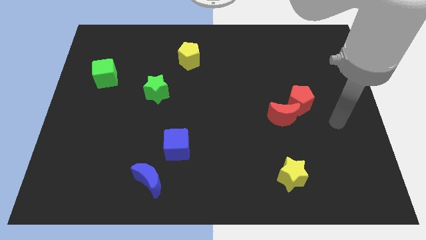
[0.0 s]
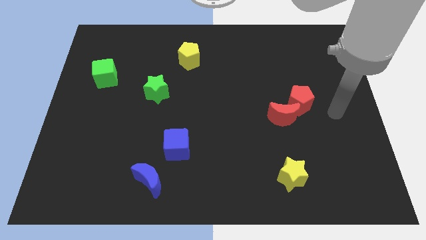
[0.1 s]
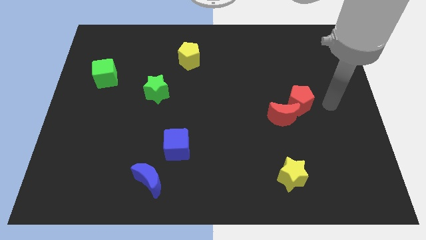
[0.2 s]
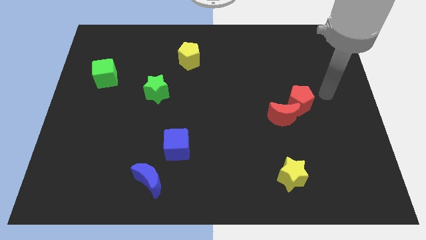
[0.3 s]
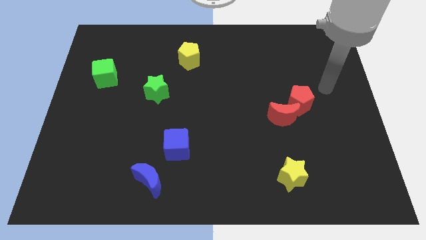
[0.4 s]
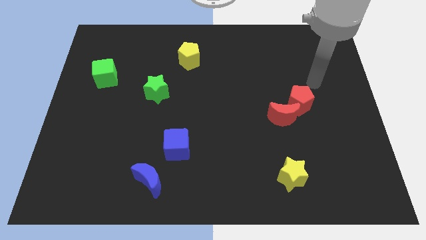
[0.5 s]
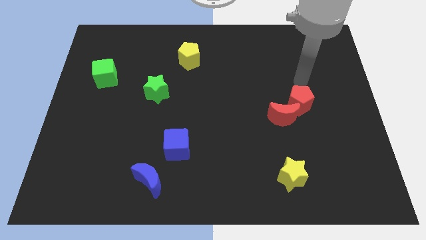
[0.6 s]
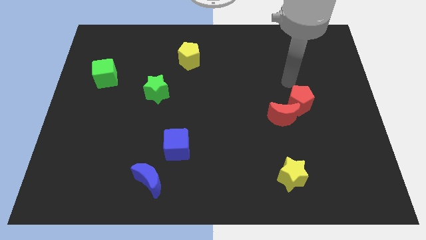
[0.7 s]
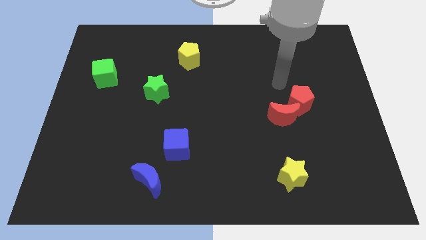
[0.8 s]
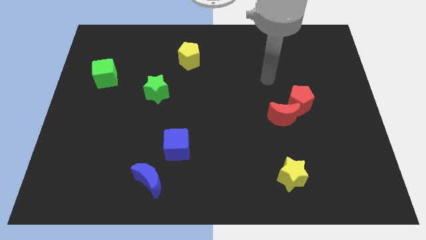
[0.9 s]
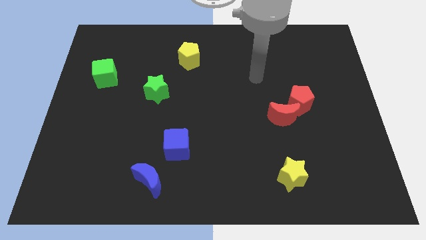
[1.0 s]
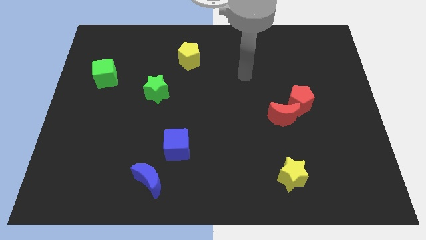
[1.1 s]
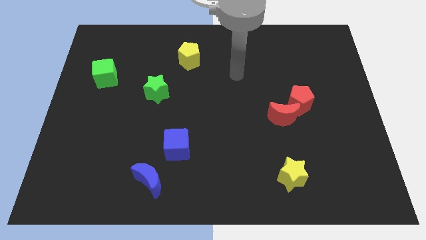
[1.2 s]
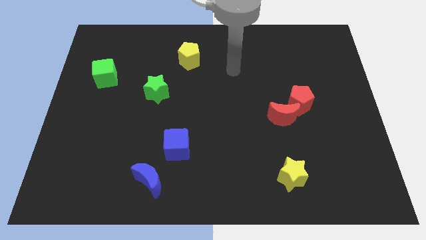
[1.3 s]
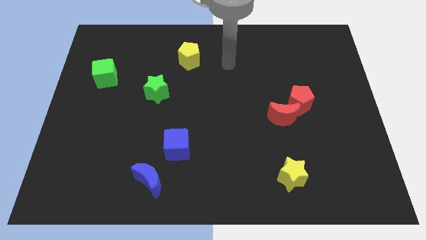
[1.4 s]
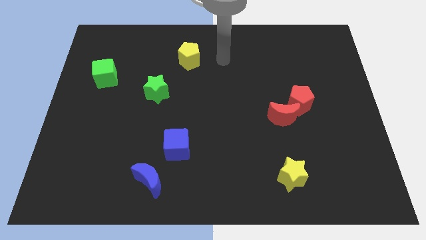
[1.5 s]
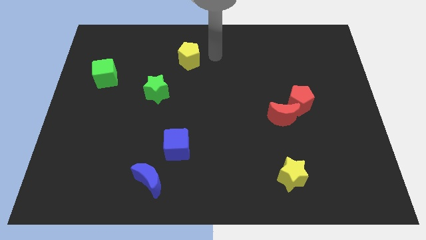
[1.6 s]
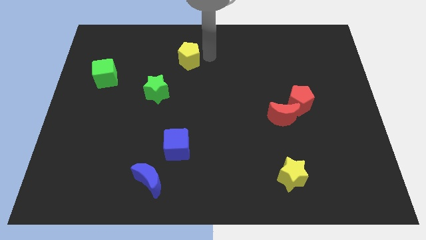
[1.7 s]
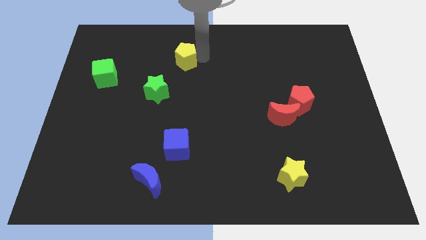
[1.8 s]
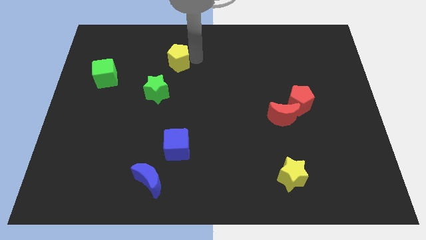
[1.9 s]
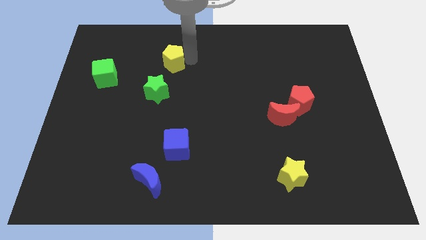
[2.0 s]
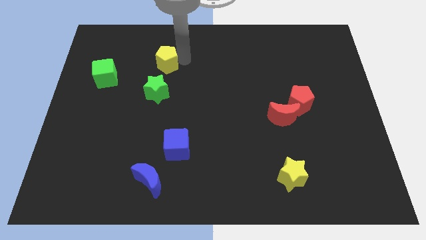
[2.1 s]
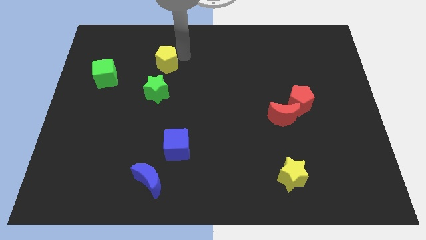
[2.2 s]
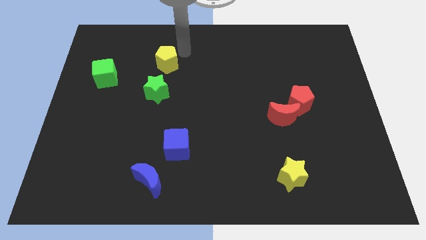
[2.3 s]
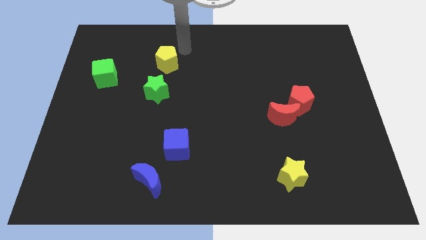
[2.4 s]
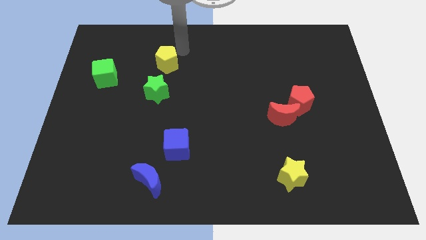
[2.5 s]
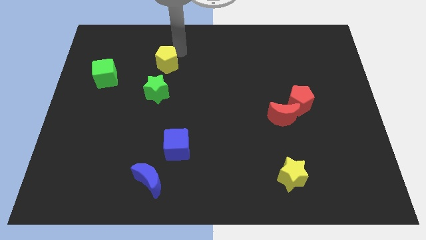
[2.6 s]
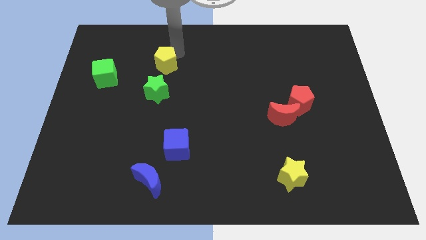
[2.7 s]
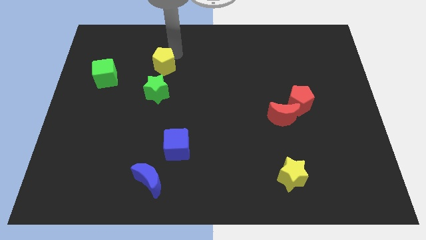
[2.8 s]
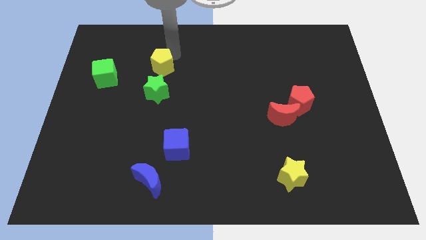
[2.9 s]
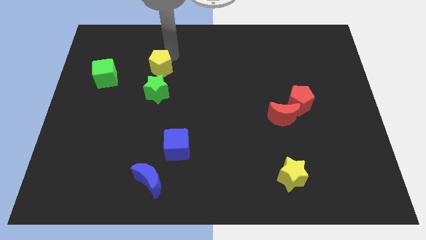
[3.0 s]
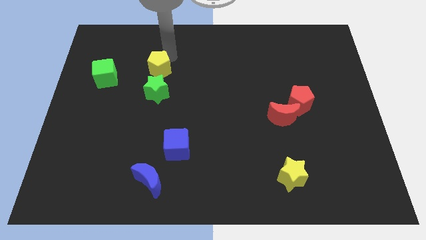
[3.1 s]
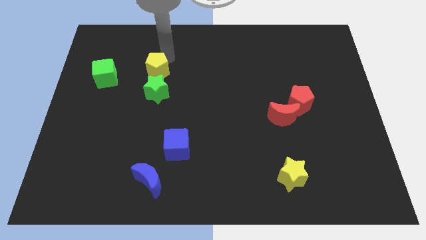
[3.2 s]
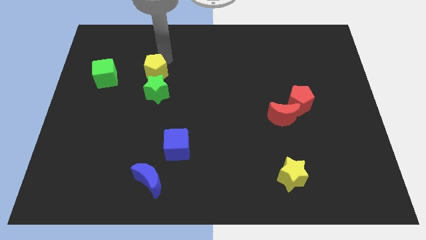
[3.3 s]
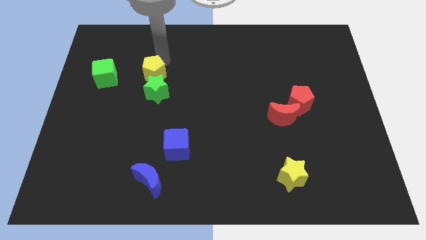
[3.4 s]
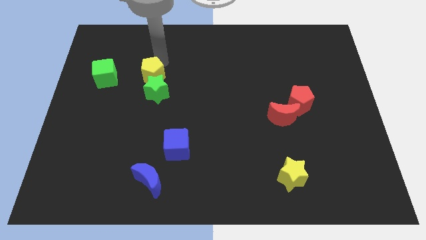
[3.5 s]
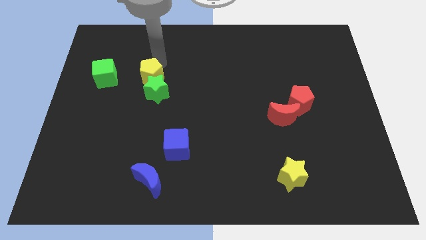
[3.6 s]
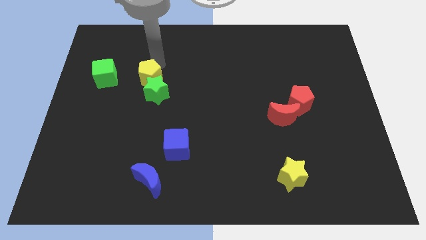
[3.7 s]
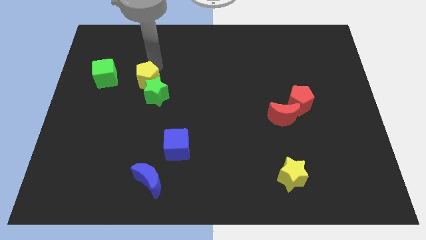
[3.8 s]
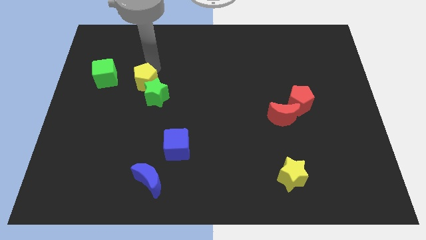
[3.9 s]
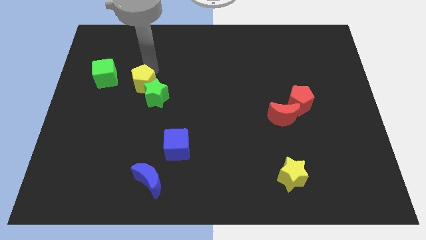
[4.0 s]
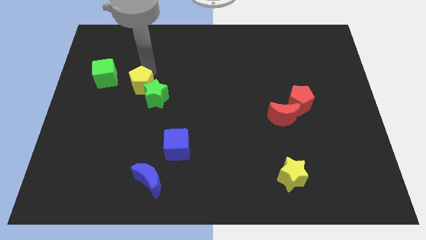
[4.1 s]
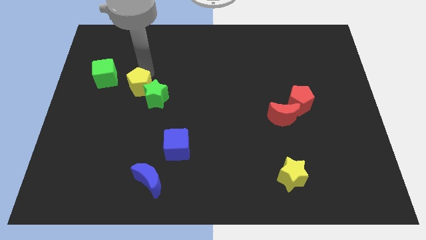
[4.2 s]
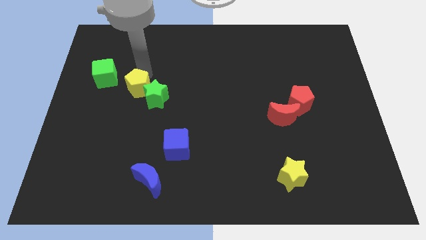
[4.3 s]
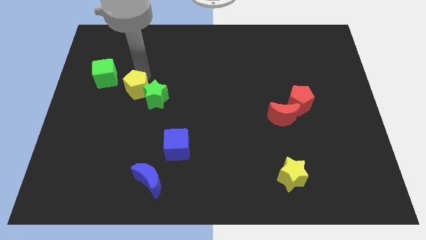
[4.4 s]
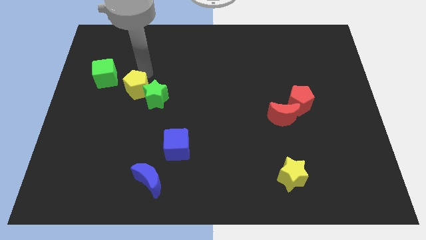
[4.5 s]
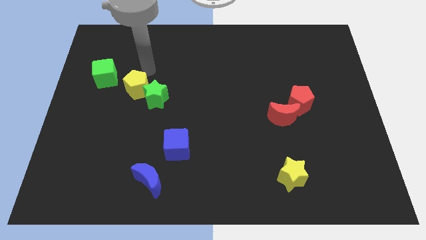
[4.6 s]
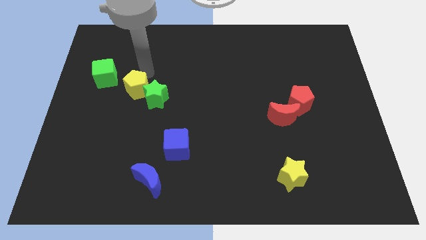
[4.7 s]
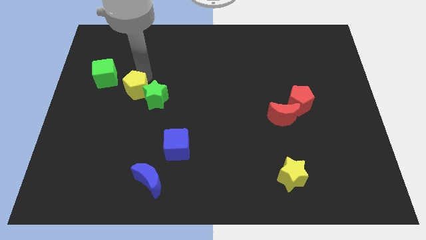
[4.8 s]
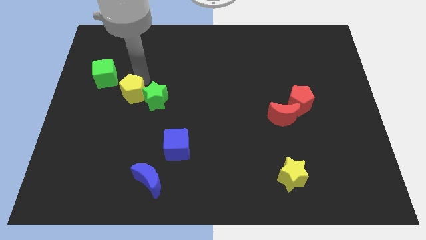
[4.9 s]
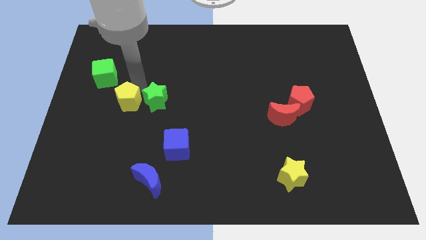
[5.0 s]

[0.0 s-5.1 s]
push the yellow pentagon downwards and left diagonally

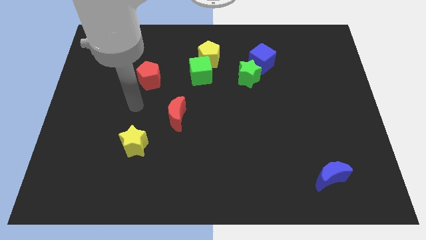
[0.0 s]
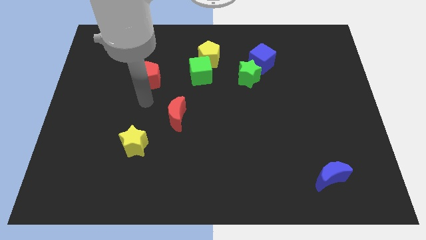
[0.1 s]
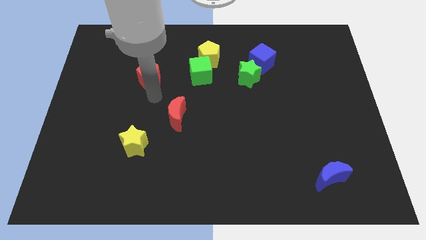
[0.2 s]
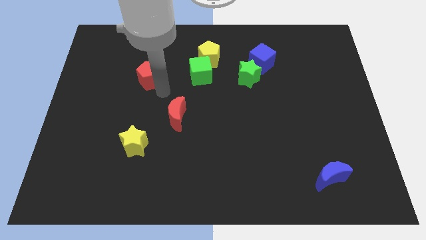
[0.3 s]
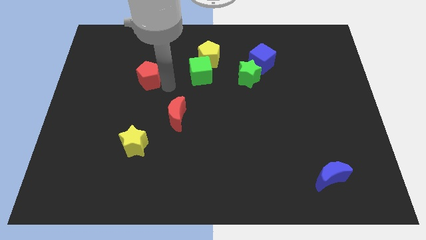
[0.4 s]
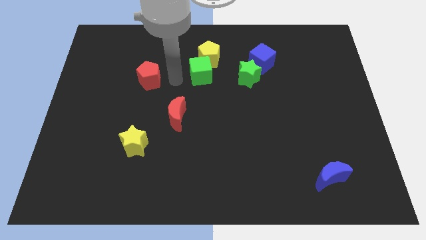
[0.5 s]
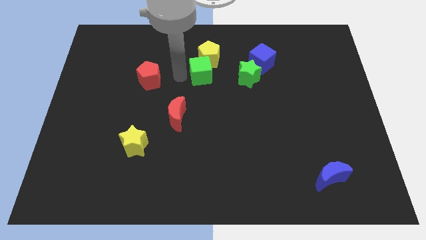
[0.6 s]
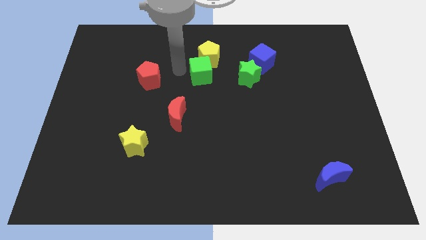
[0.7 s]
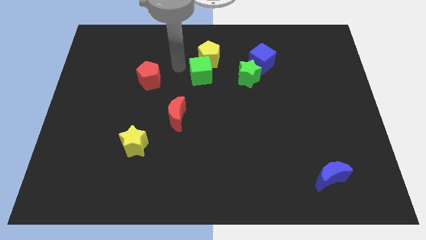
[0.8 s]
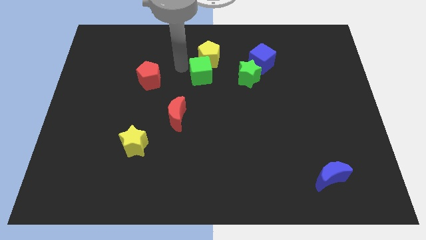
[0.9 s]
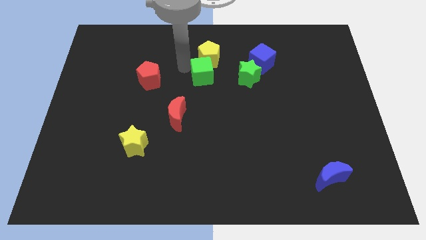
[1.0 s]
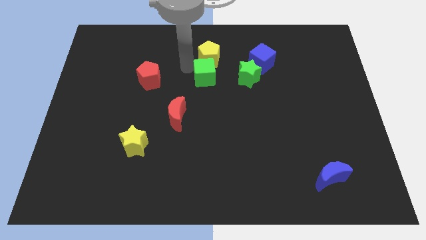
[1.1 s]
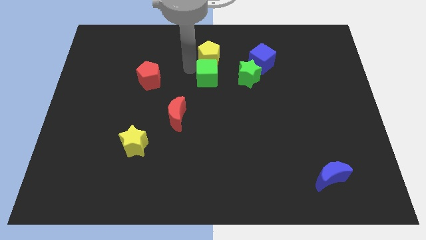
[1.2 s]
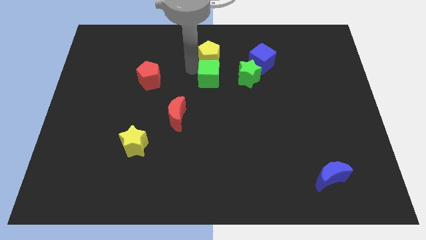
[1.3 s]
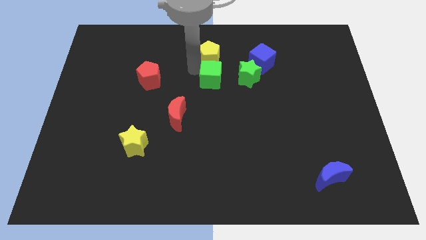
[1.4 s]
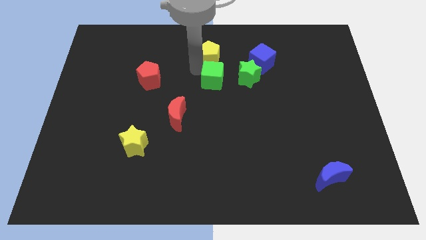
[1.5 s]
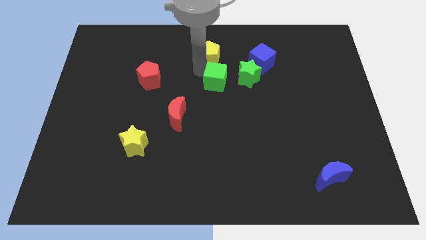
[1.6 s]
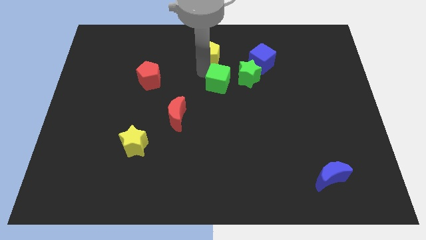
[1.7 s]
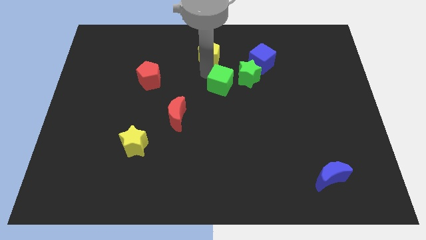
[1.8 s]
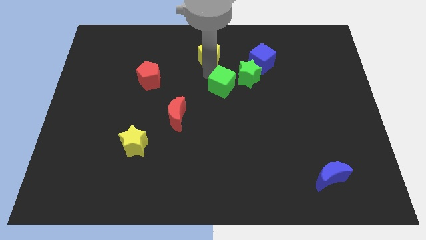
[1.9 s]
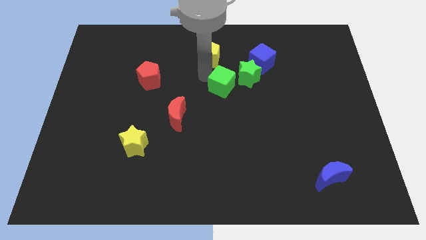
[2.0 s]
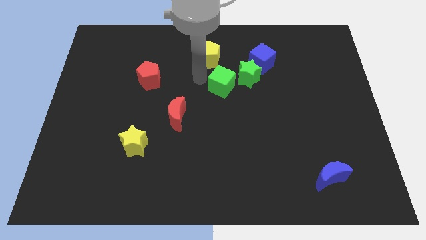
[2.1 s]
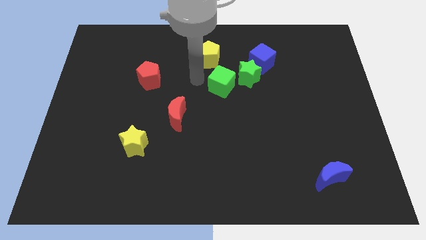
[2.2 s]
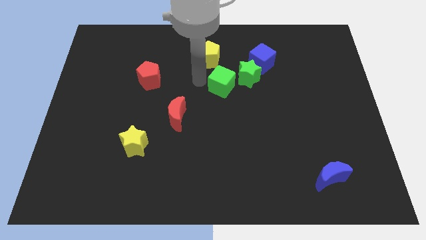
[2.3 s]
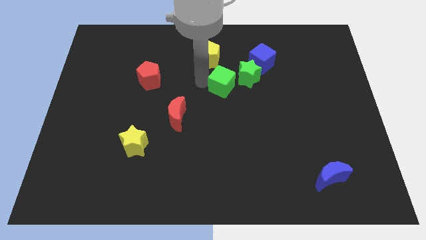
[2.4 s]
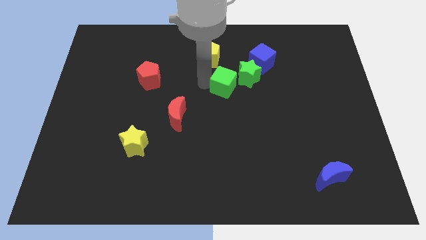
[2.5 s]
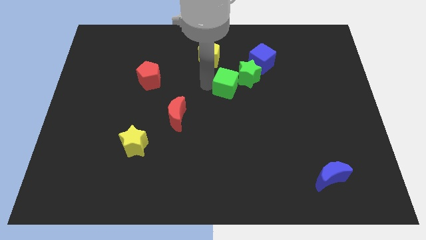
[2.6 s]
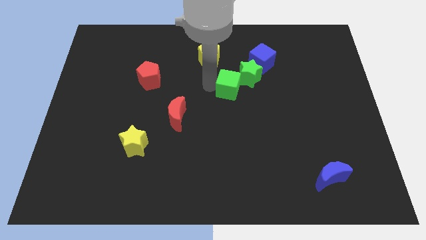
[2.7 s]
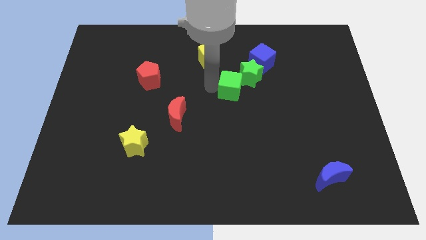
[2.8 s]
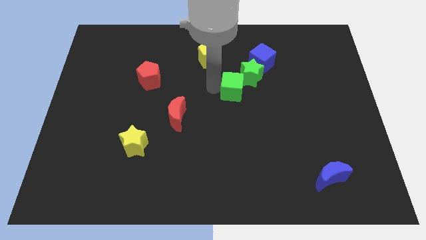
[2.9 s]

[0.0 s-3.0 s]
slightly push the green cube to the right

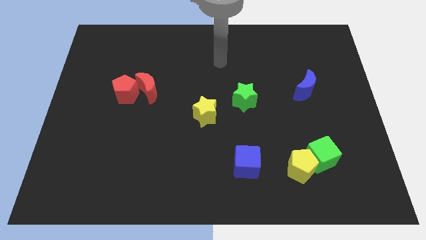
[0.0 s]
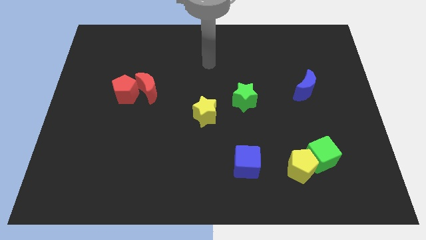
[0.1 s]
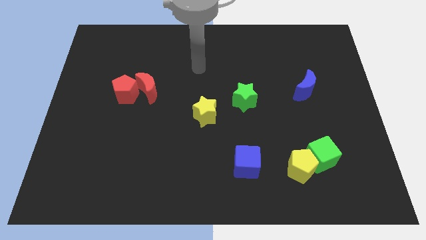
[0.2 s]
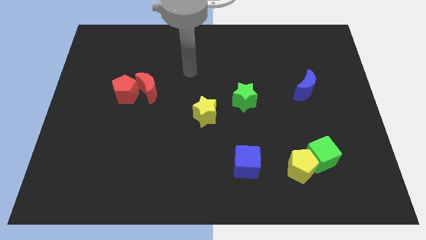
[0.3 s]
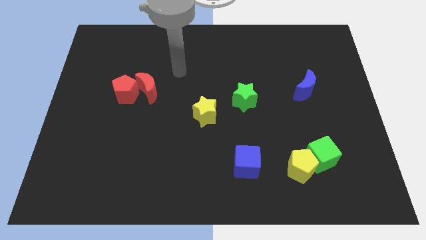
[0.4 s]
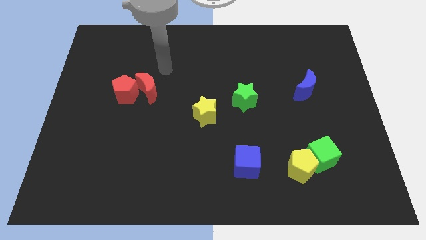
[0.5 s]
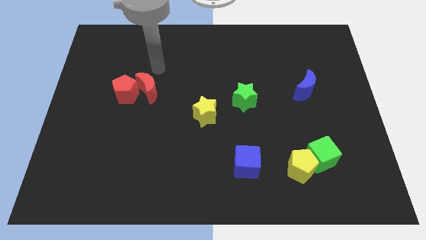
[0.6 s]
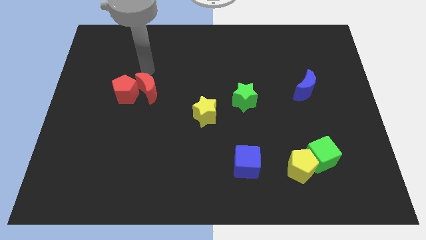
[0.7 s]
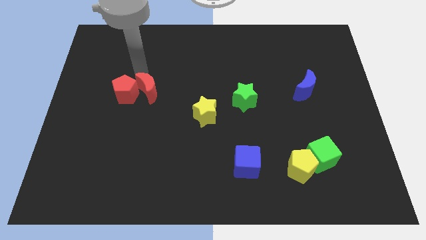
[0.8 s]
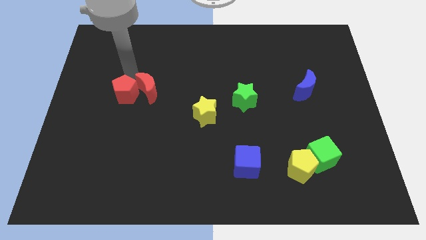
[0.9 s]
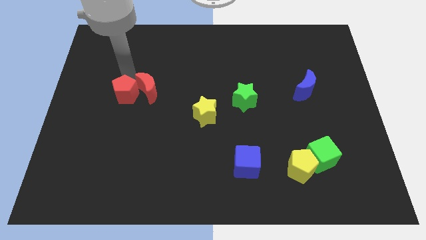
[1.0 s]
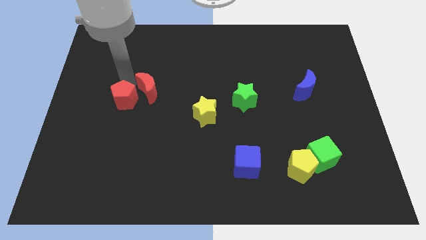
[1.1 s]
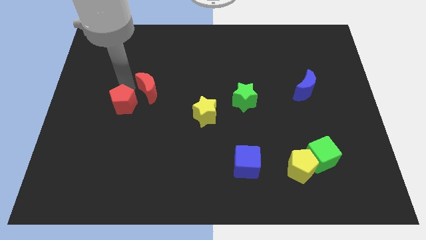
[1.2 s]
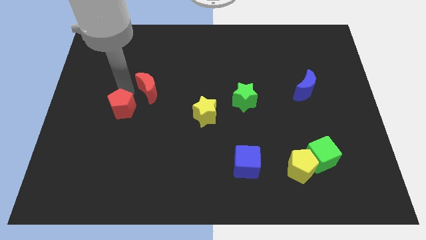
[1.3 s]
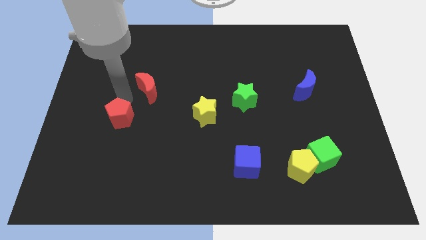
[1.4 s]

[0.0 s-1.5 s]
move the red pentagon somewhat downwards
